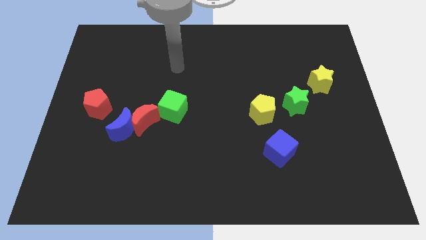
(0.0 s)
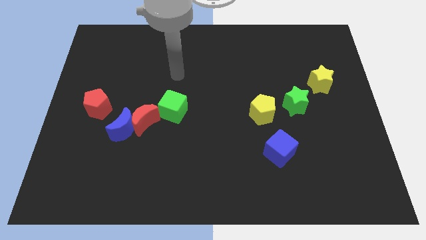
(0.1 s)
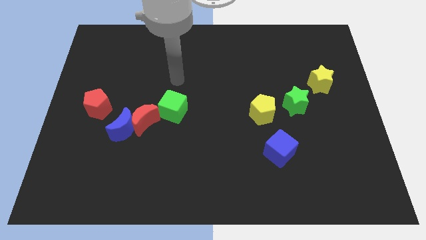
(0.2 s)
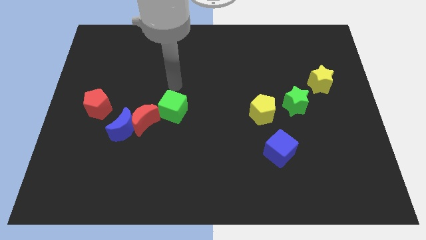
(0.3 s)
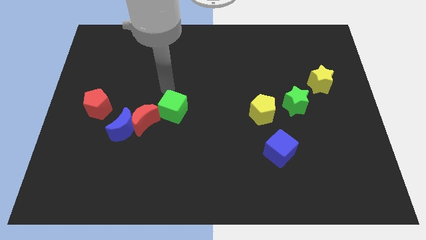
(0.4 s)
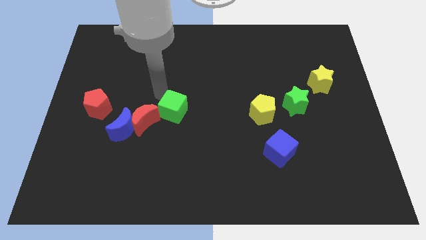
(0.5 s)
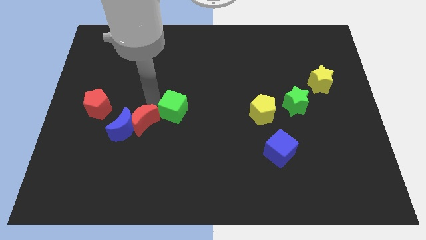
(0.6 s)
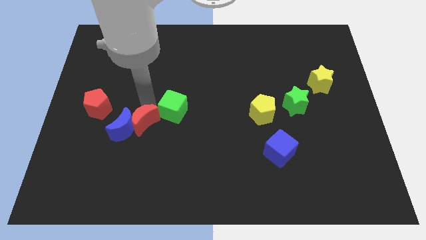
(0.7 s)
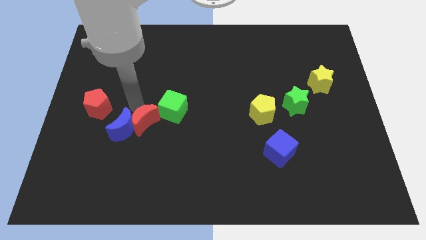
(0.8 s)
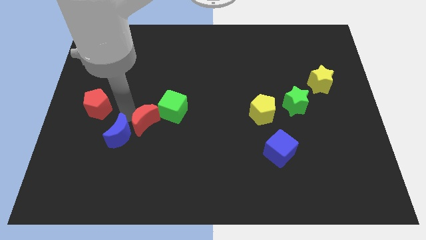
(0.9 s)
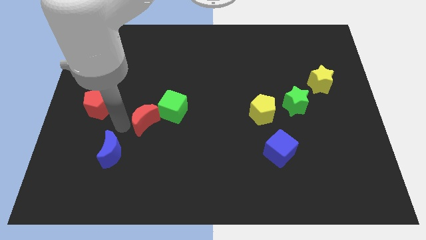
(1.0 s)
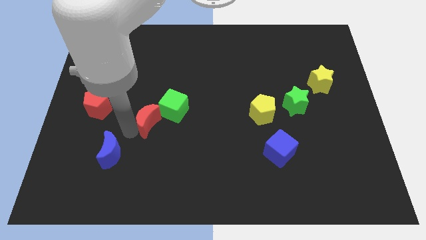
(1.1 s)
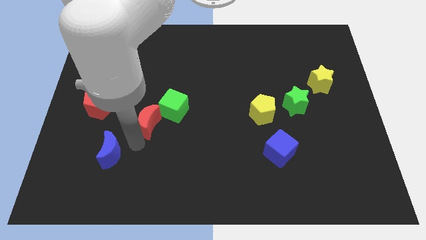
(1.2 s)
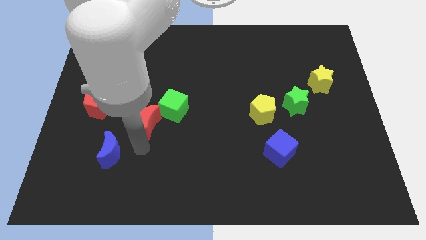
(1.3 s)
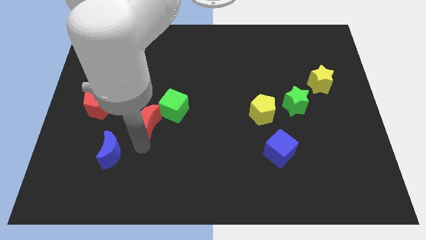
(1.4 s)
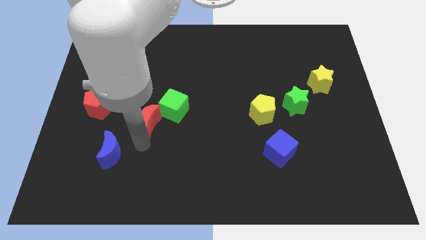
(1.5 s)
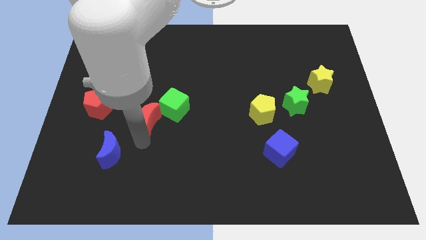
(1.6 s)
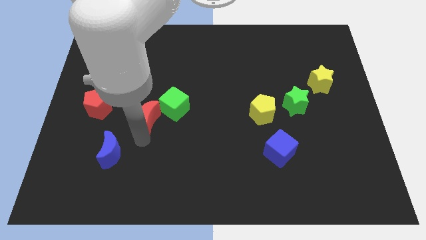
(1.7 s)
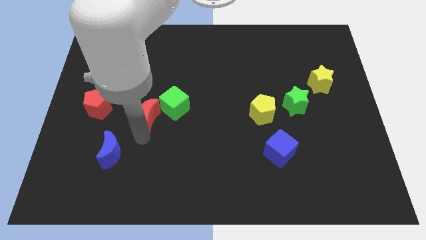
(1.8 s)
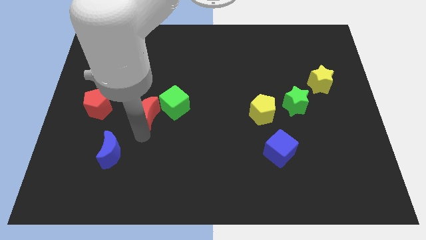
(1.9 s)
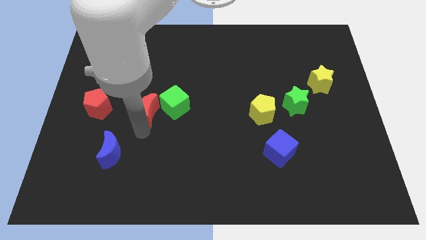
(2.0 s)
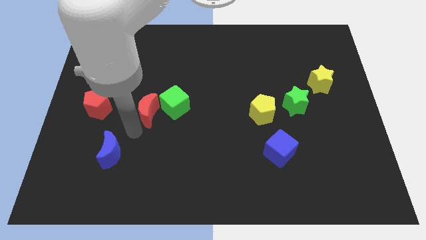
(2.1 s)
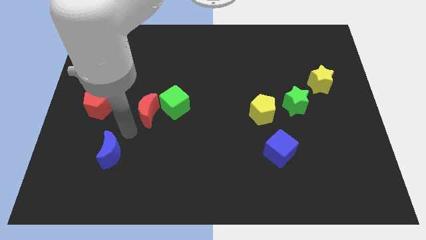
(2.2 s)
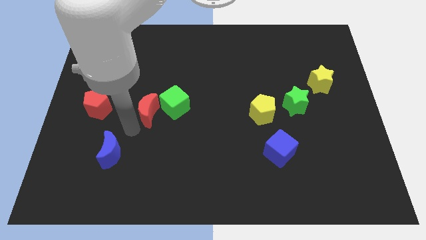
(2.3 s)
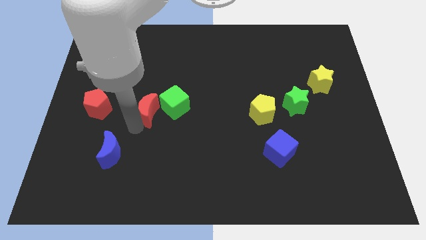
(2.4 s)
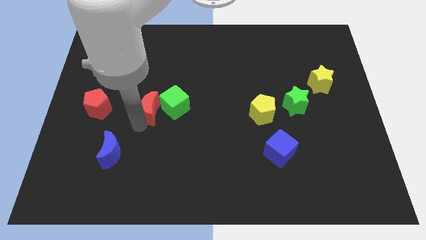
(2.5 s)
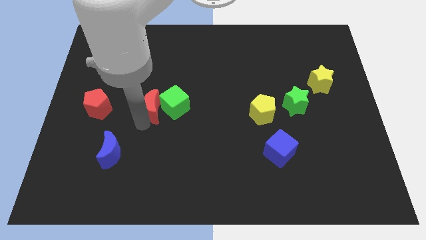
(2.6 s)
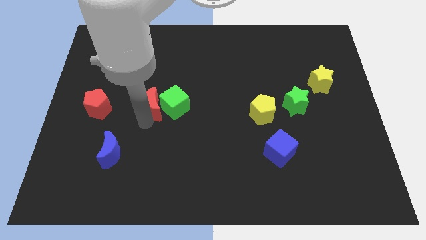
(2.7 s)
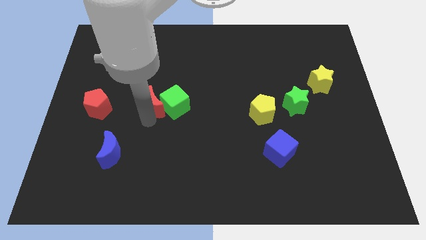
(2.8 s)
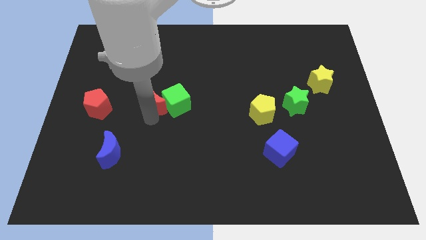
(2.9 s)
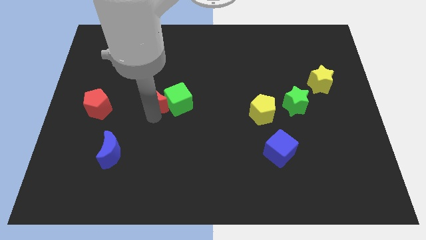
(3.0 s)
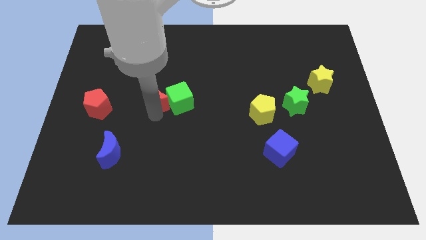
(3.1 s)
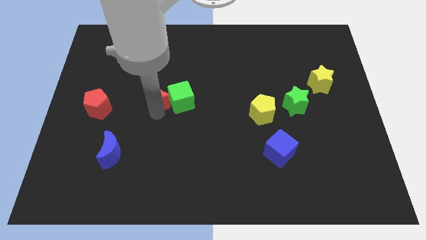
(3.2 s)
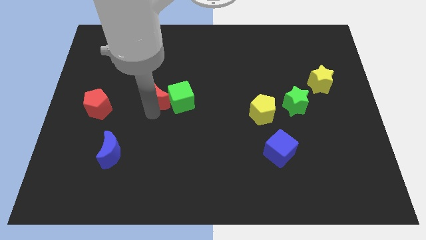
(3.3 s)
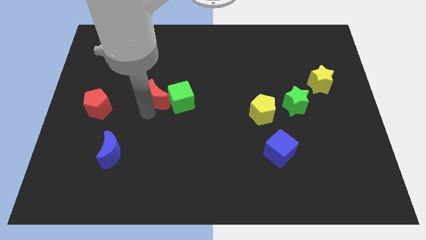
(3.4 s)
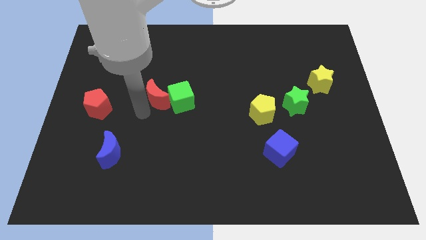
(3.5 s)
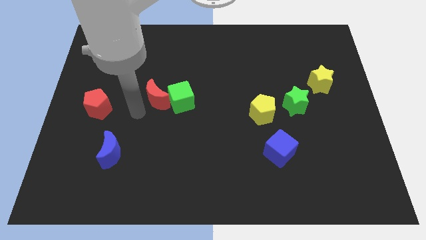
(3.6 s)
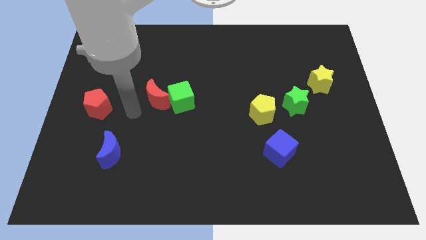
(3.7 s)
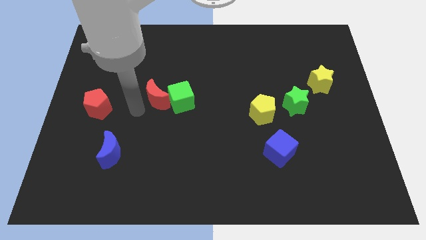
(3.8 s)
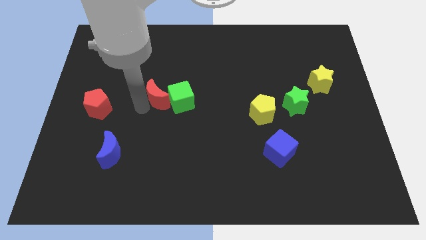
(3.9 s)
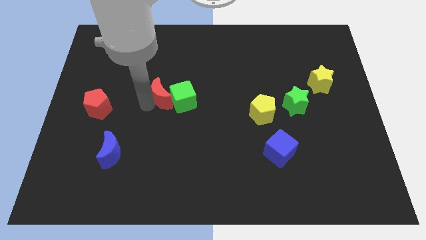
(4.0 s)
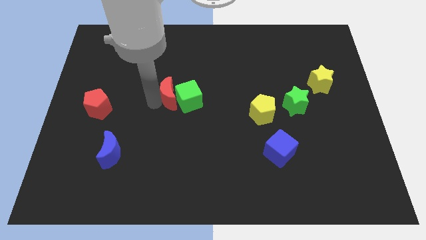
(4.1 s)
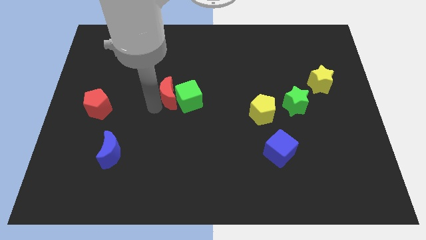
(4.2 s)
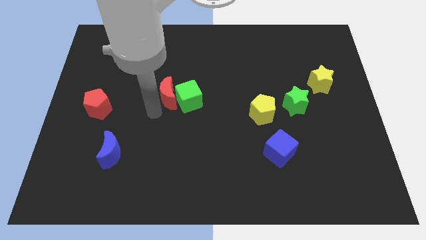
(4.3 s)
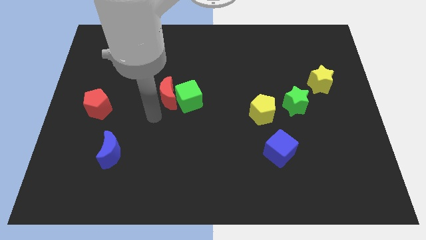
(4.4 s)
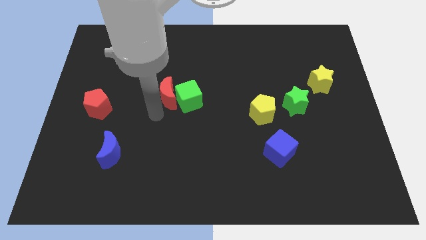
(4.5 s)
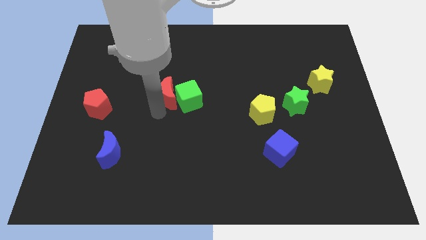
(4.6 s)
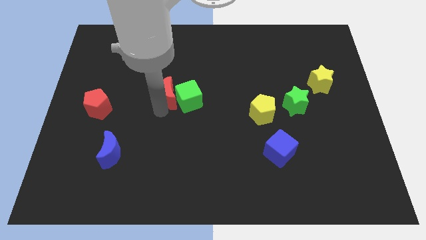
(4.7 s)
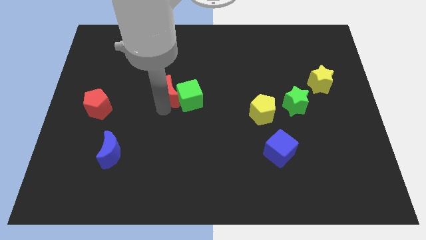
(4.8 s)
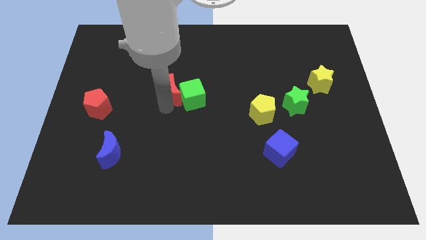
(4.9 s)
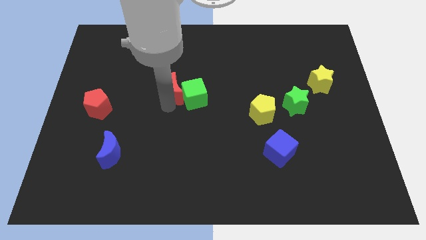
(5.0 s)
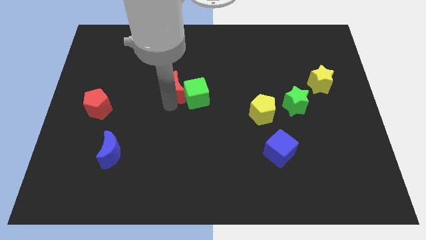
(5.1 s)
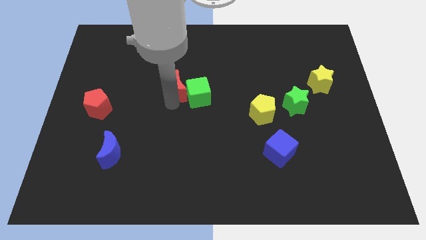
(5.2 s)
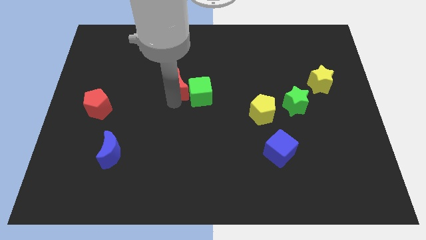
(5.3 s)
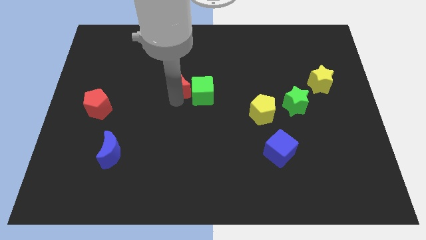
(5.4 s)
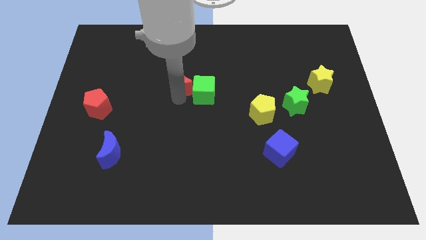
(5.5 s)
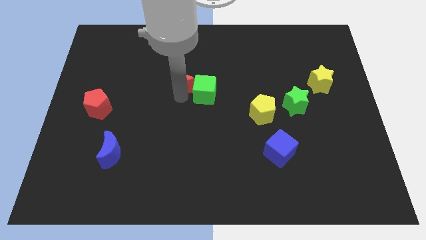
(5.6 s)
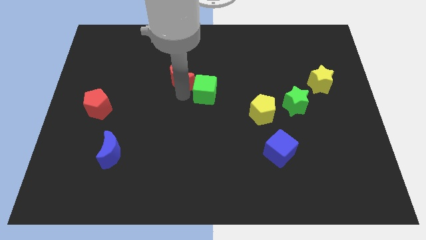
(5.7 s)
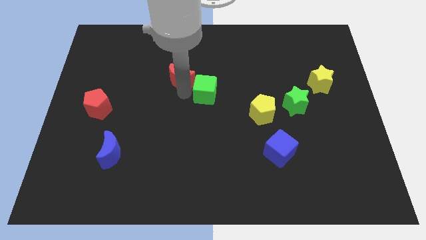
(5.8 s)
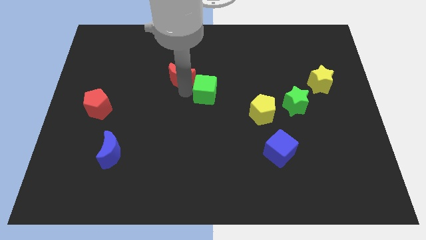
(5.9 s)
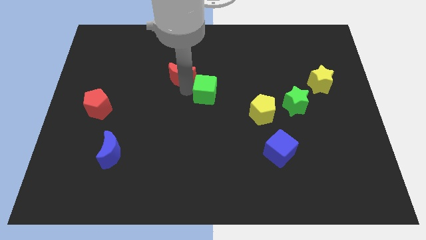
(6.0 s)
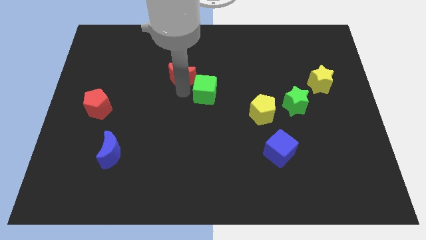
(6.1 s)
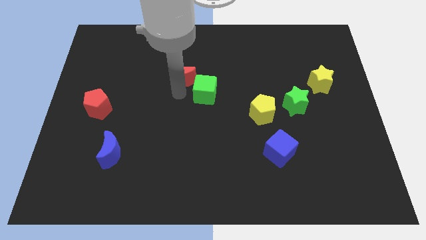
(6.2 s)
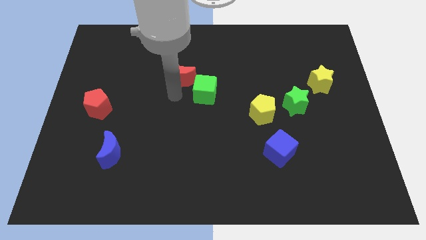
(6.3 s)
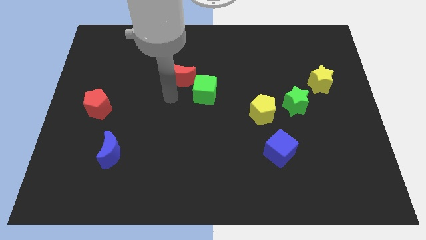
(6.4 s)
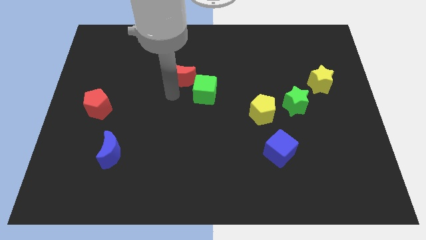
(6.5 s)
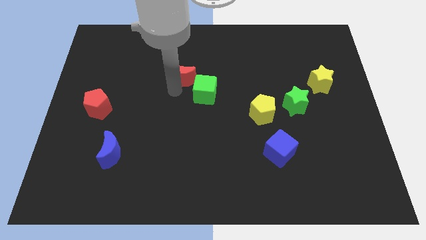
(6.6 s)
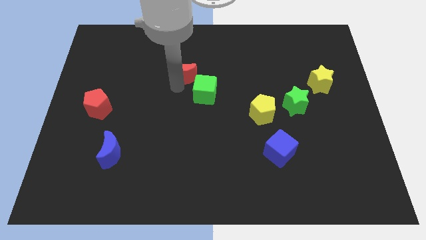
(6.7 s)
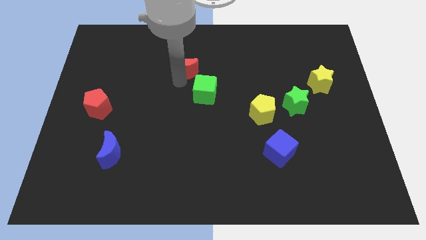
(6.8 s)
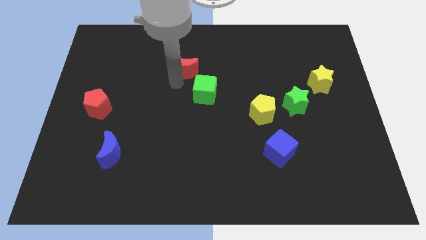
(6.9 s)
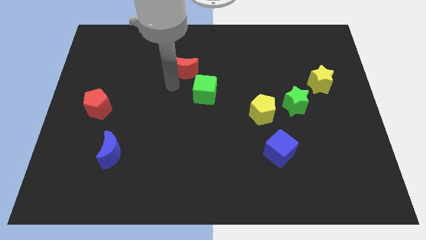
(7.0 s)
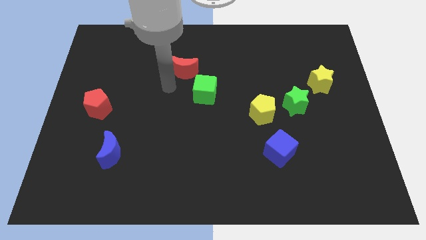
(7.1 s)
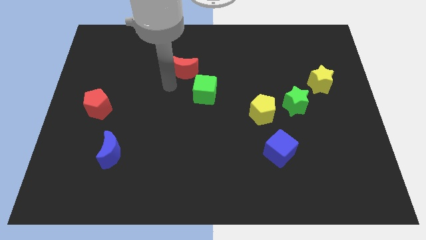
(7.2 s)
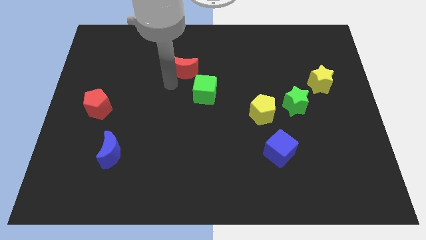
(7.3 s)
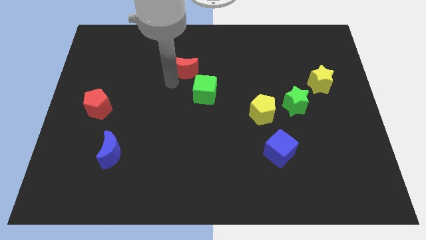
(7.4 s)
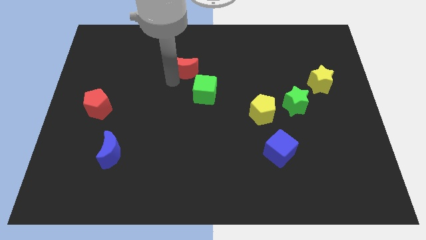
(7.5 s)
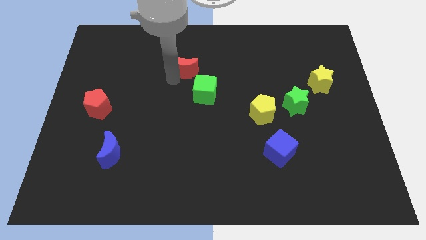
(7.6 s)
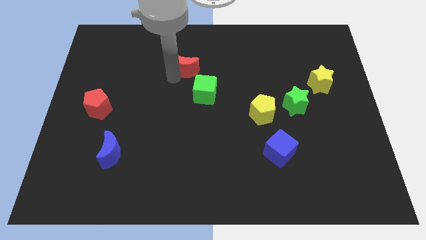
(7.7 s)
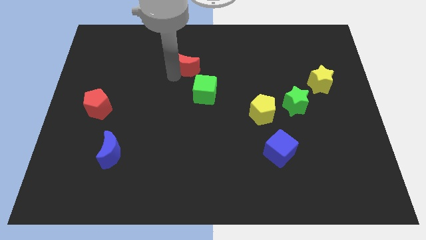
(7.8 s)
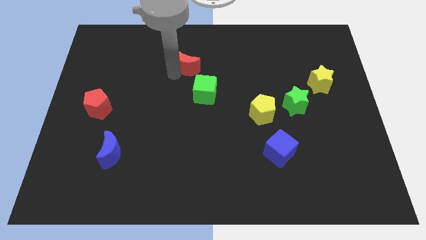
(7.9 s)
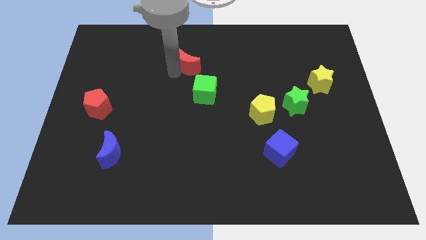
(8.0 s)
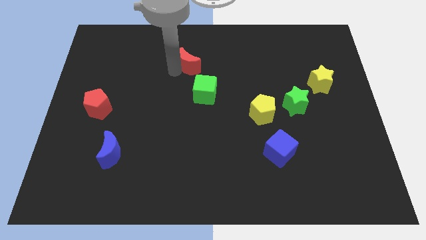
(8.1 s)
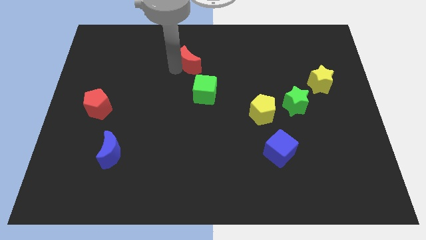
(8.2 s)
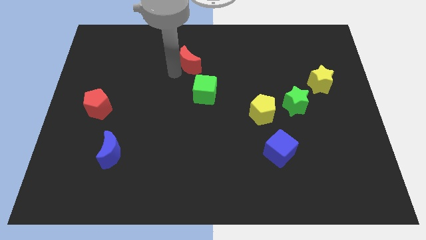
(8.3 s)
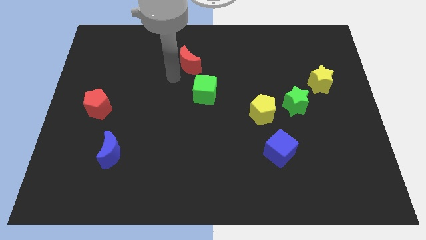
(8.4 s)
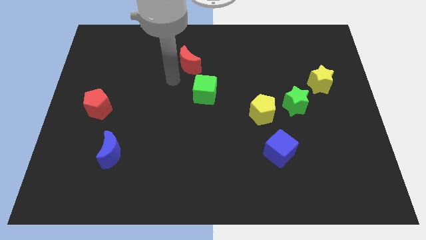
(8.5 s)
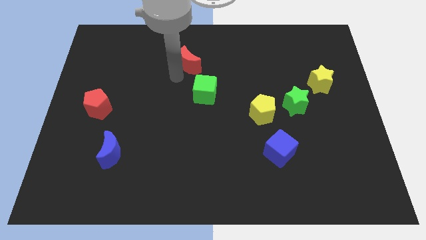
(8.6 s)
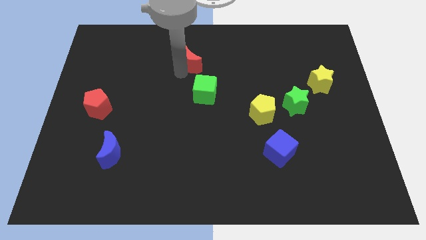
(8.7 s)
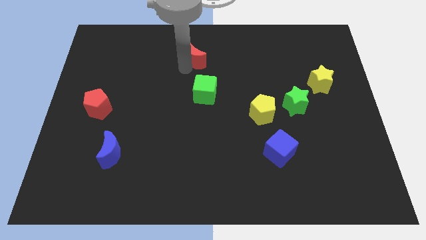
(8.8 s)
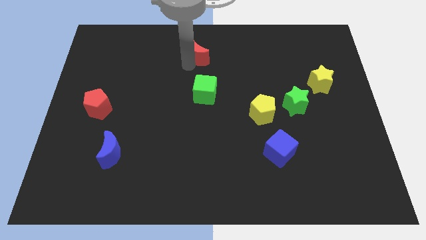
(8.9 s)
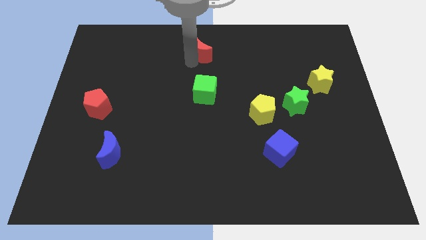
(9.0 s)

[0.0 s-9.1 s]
put the red moon to the top side
